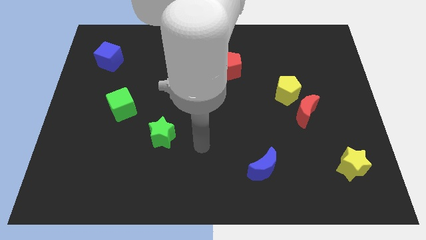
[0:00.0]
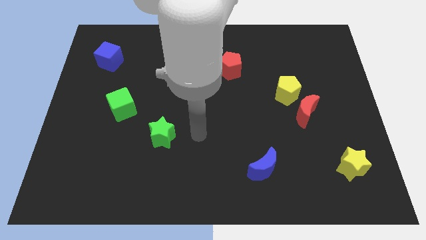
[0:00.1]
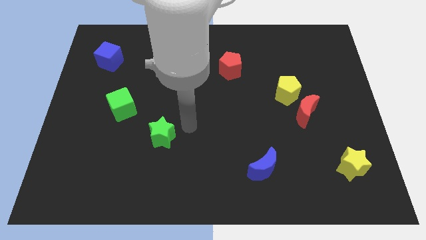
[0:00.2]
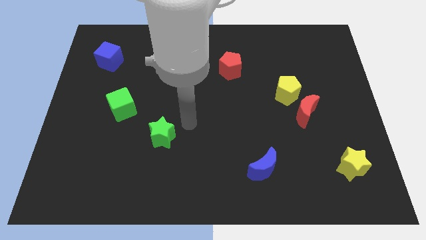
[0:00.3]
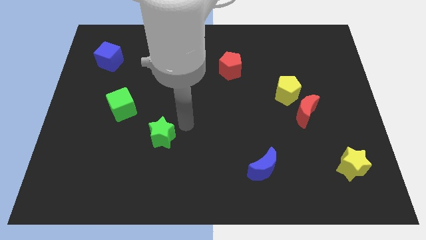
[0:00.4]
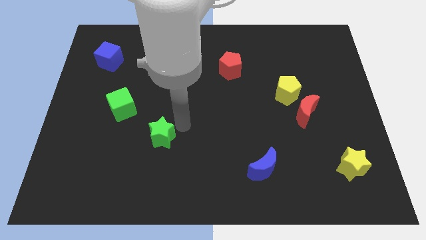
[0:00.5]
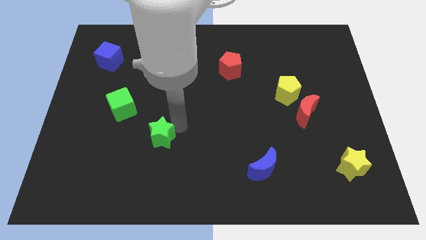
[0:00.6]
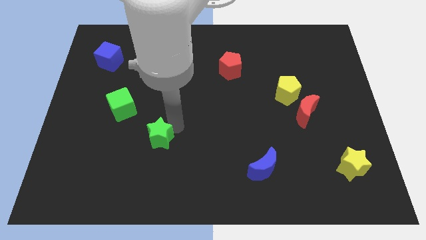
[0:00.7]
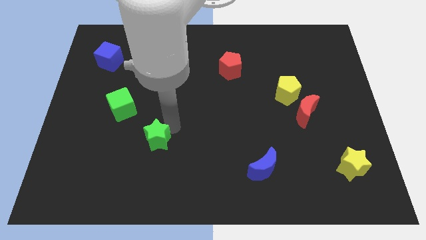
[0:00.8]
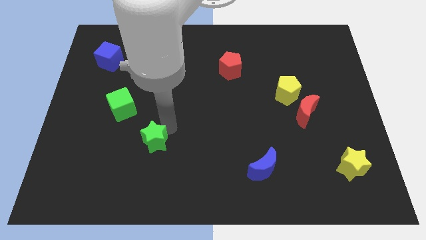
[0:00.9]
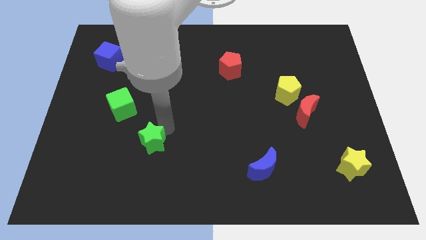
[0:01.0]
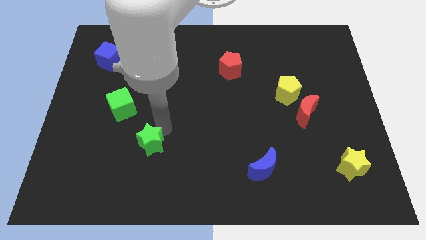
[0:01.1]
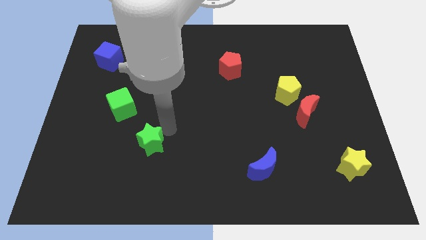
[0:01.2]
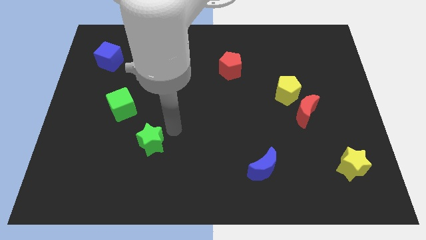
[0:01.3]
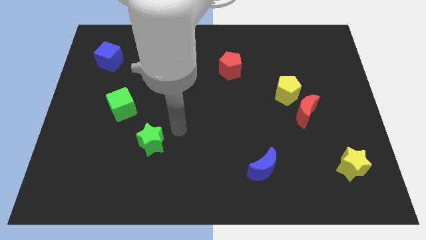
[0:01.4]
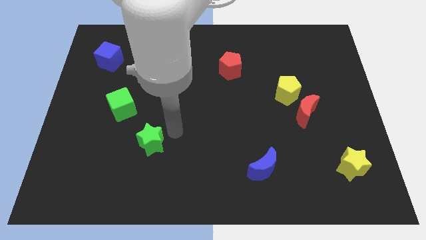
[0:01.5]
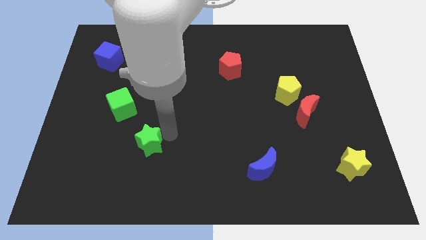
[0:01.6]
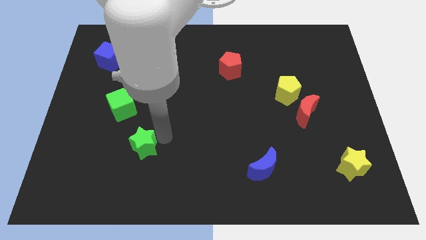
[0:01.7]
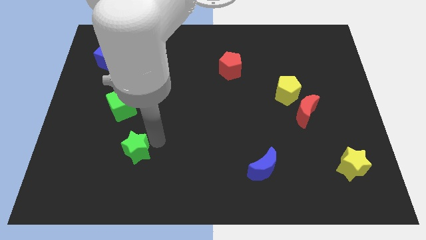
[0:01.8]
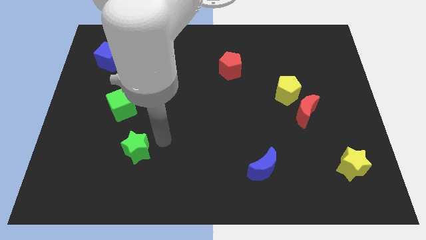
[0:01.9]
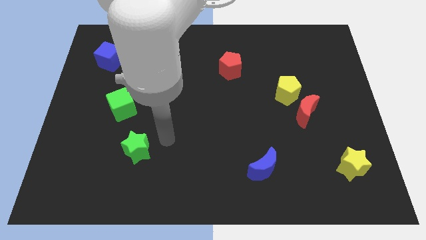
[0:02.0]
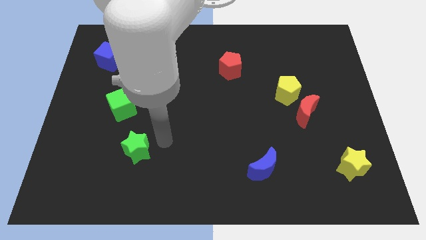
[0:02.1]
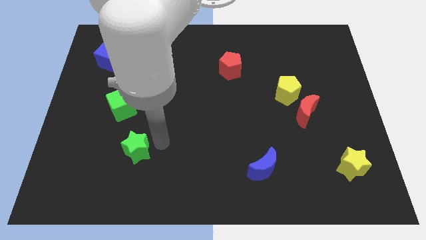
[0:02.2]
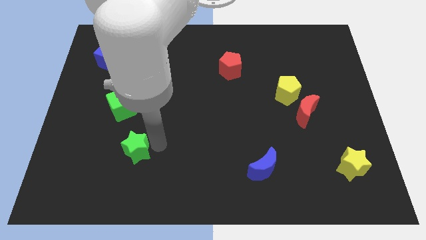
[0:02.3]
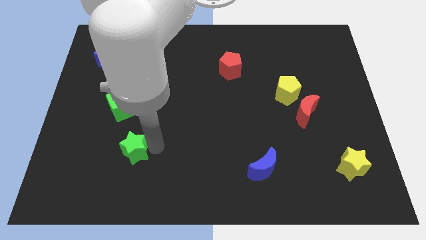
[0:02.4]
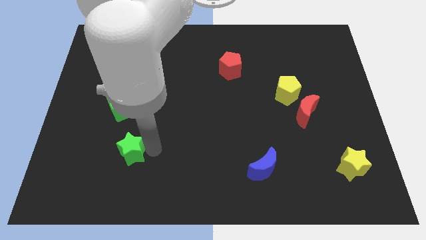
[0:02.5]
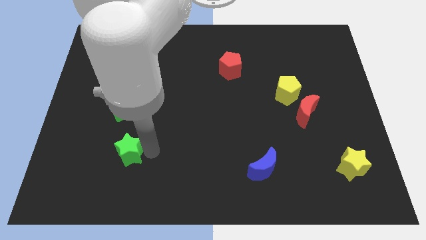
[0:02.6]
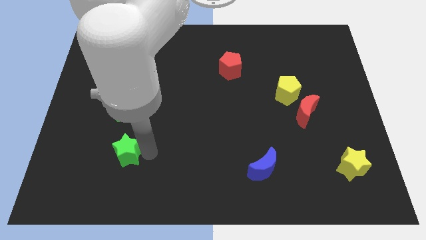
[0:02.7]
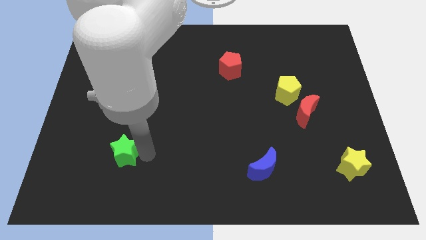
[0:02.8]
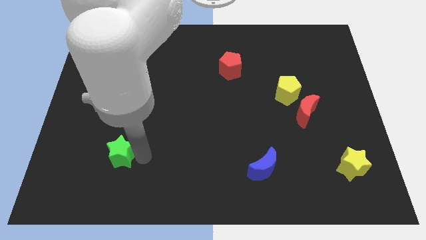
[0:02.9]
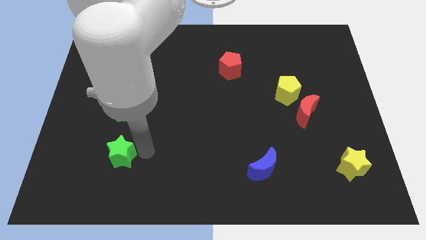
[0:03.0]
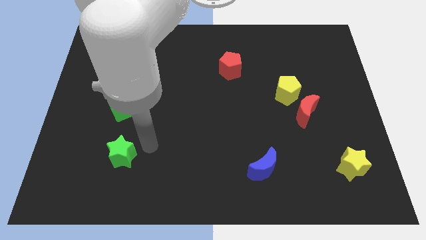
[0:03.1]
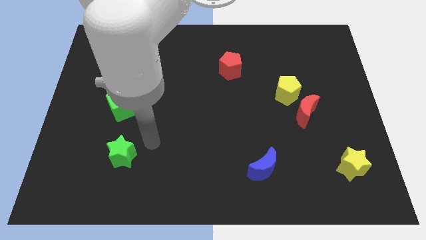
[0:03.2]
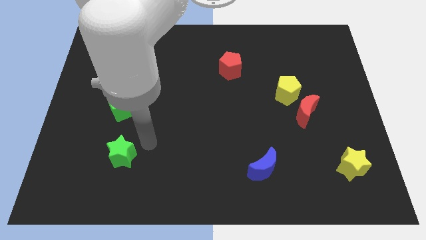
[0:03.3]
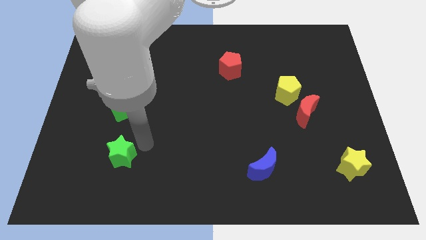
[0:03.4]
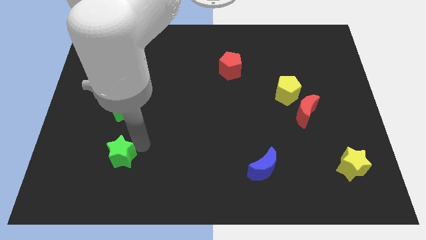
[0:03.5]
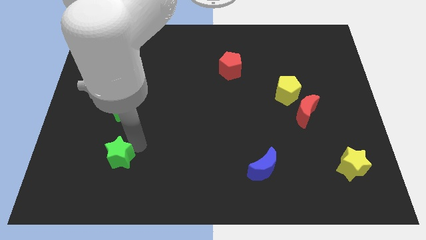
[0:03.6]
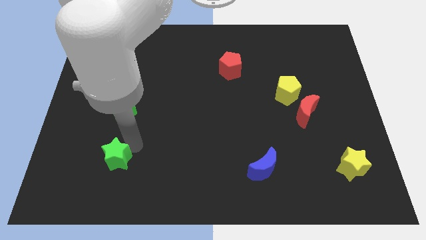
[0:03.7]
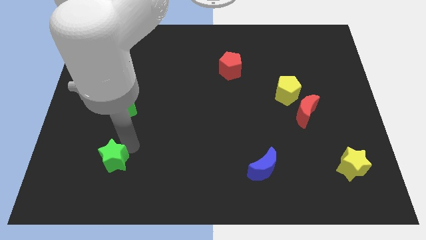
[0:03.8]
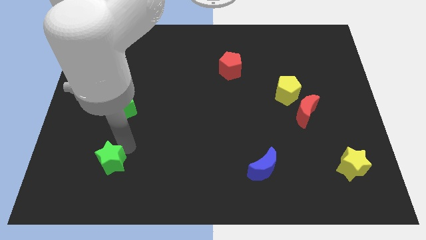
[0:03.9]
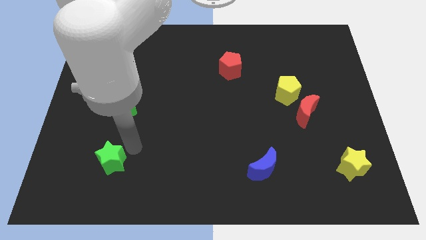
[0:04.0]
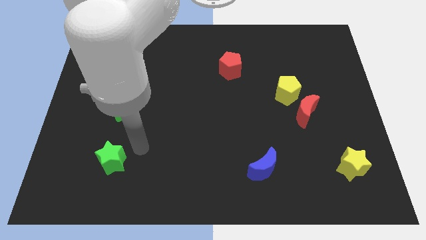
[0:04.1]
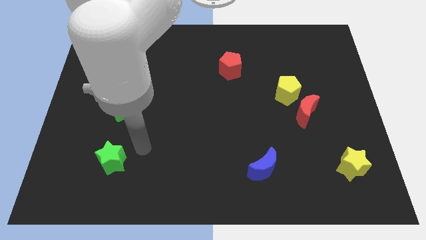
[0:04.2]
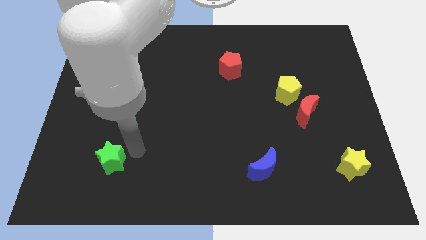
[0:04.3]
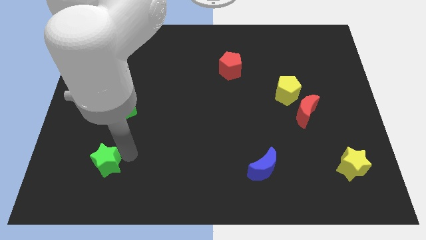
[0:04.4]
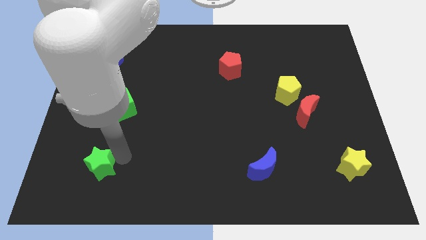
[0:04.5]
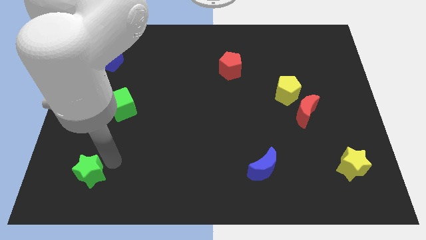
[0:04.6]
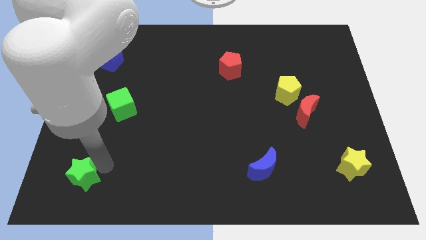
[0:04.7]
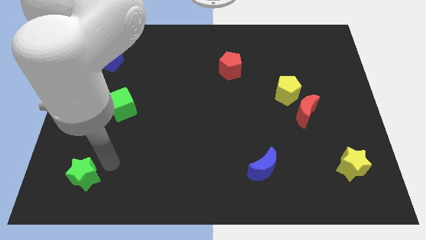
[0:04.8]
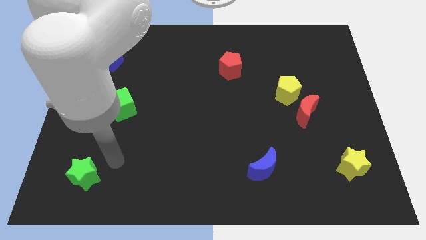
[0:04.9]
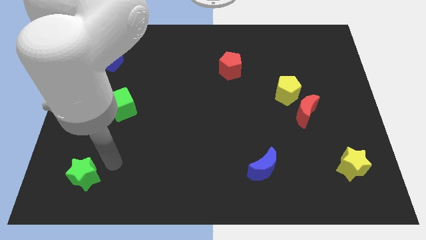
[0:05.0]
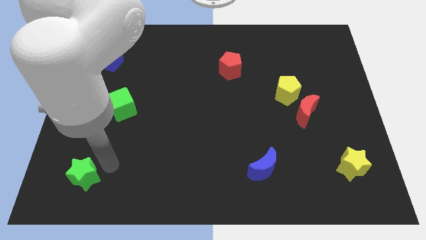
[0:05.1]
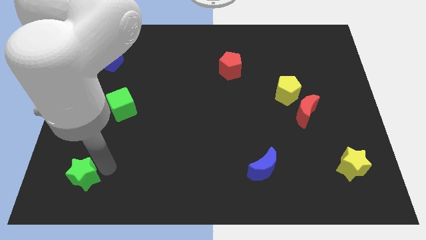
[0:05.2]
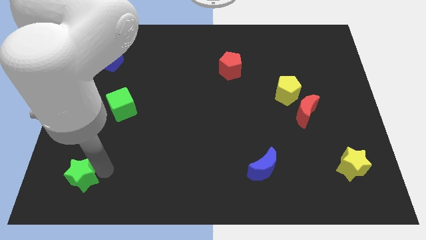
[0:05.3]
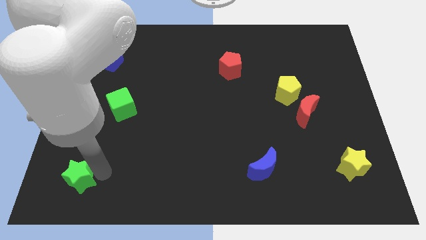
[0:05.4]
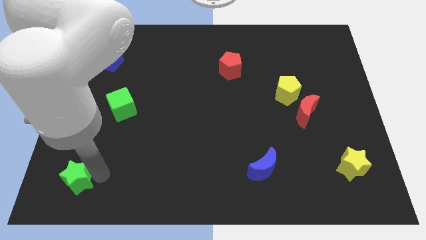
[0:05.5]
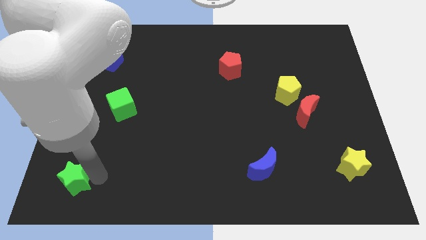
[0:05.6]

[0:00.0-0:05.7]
move the green star to the lower left corner

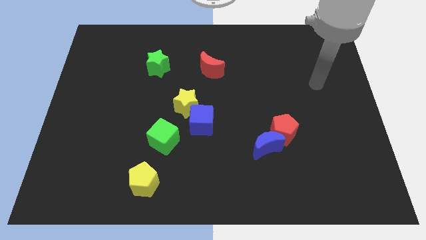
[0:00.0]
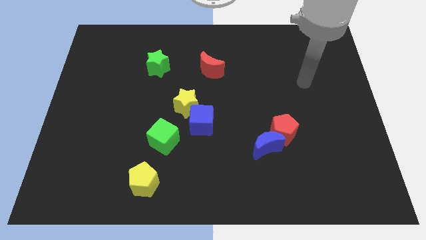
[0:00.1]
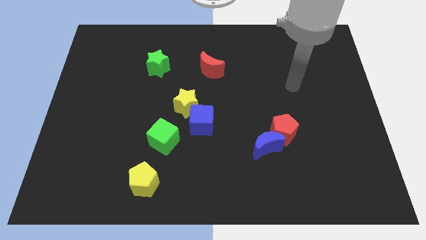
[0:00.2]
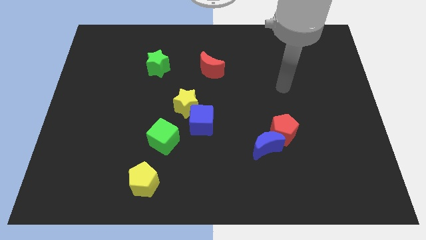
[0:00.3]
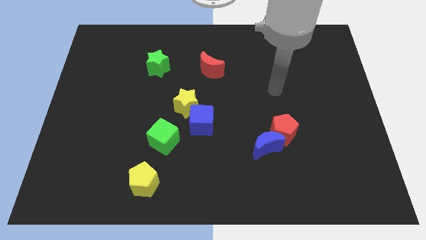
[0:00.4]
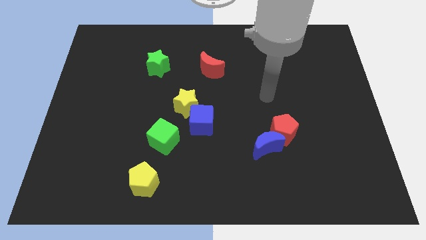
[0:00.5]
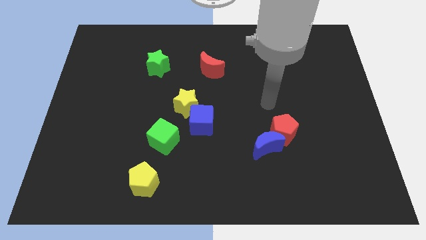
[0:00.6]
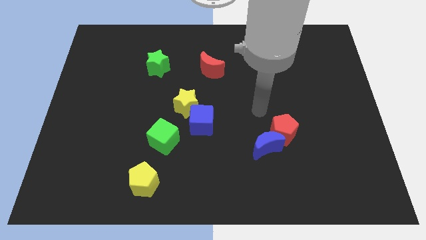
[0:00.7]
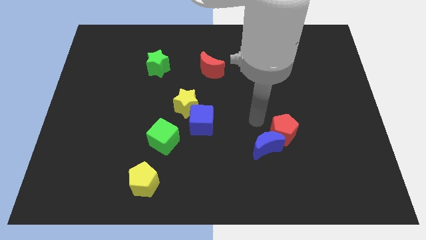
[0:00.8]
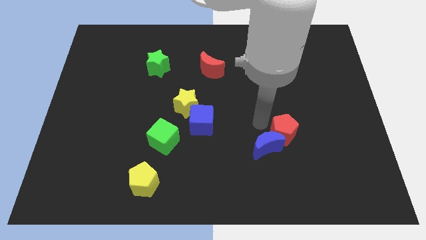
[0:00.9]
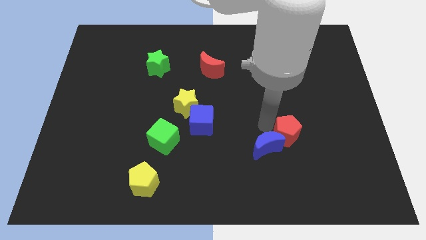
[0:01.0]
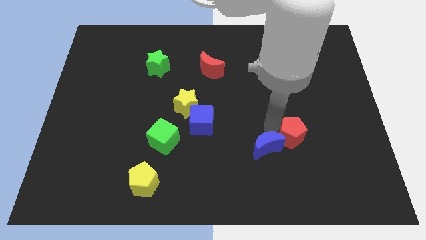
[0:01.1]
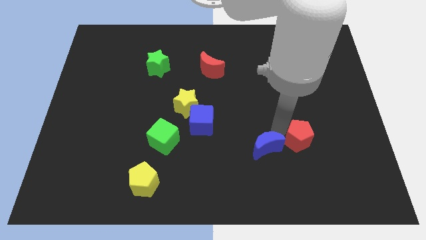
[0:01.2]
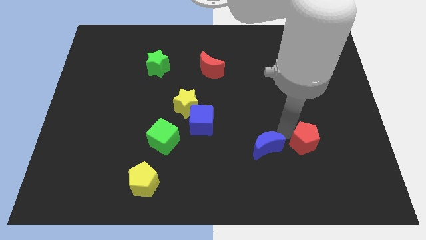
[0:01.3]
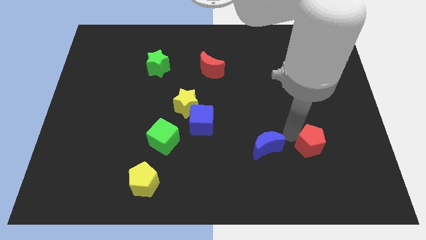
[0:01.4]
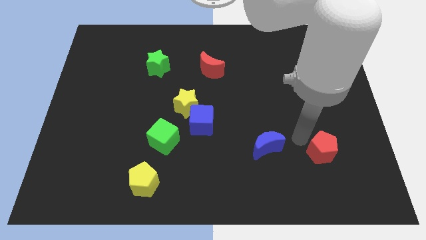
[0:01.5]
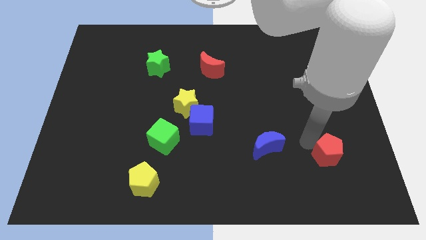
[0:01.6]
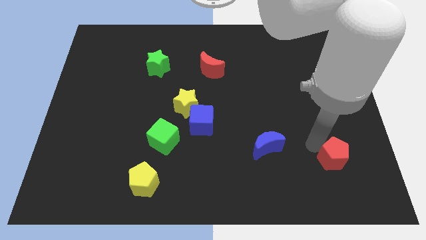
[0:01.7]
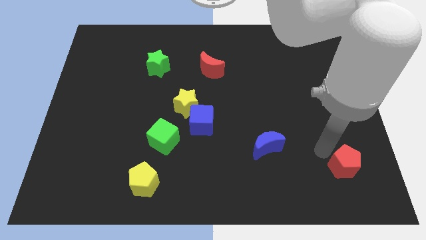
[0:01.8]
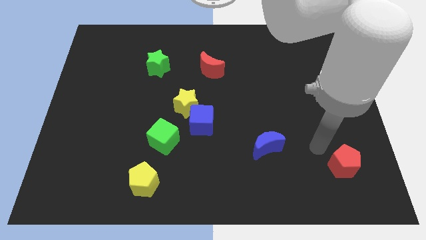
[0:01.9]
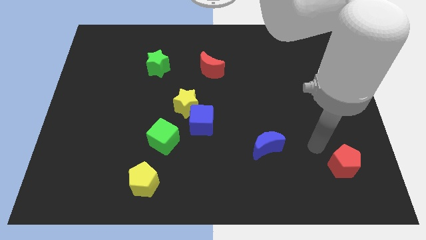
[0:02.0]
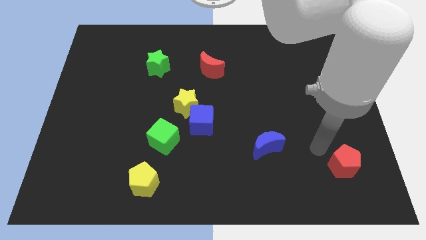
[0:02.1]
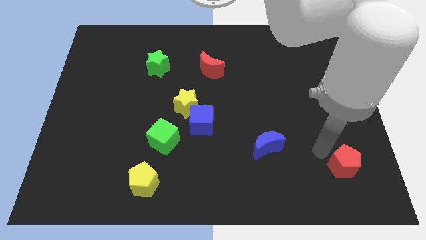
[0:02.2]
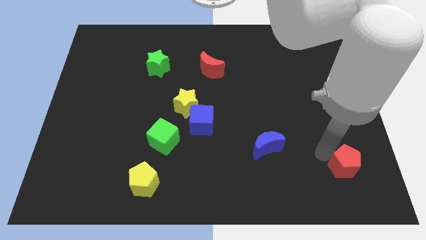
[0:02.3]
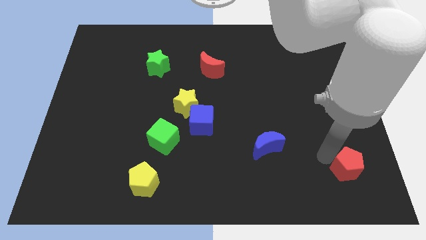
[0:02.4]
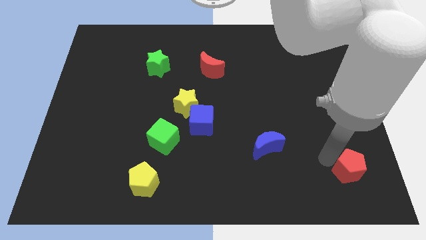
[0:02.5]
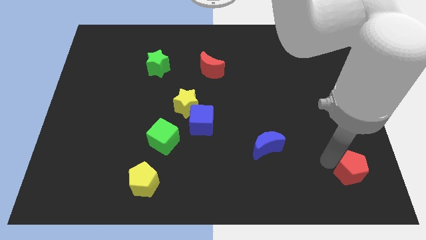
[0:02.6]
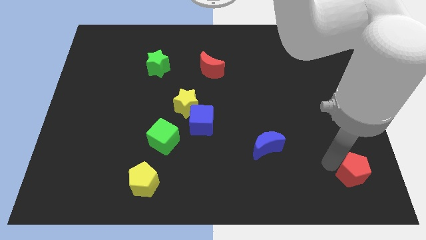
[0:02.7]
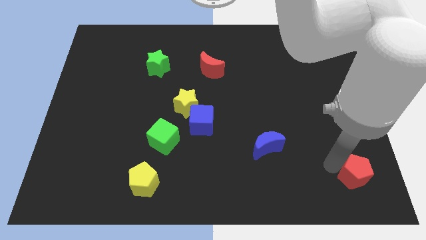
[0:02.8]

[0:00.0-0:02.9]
push the red pentagon to the lower right corner
